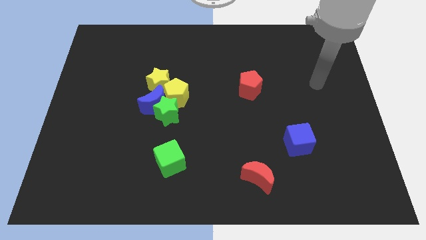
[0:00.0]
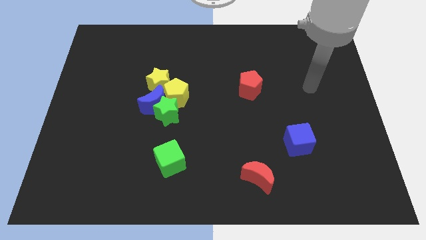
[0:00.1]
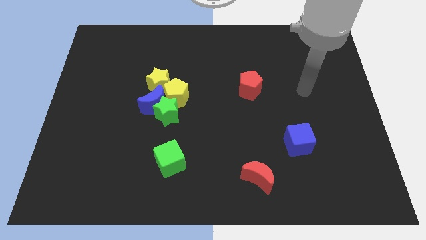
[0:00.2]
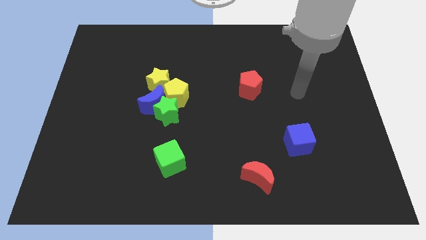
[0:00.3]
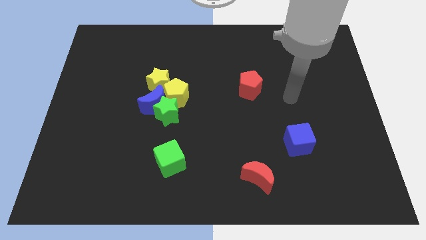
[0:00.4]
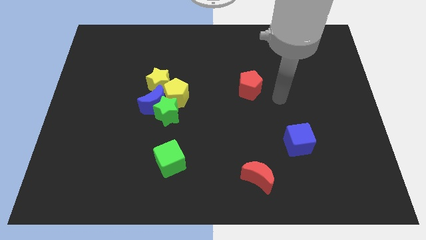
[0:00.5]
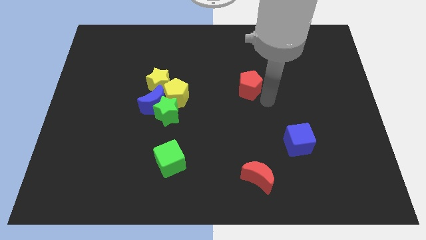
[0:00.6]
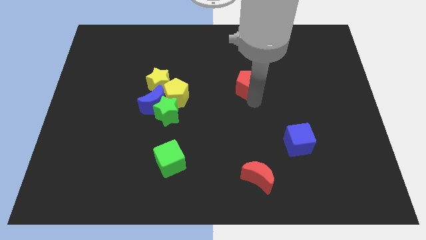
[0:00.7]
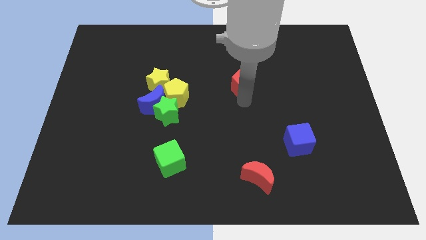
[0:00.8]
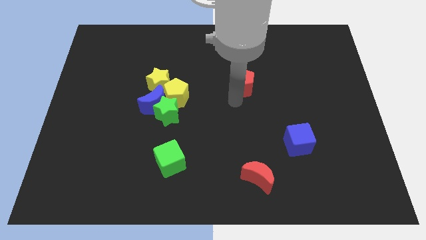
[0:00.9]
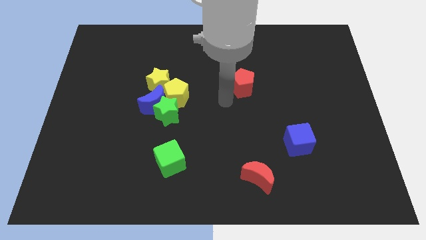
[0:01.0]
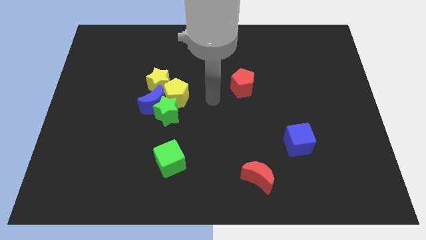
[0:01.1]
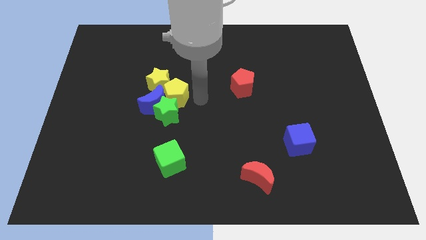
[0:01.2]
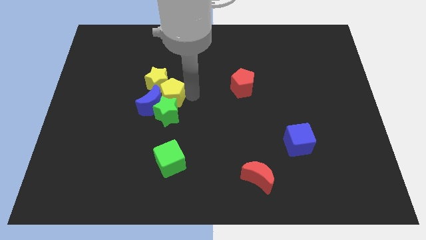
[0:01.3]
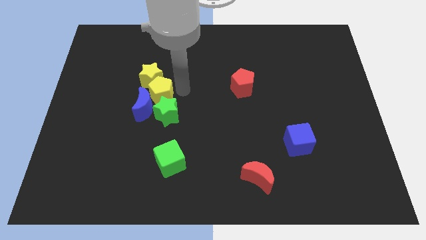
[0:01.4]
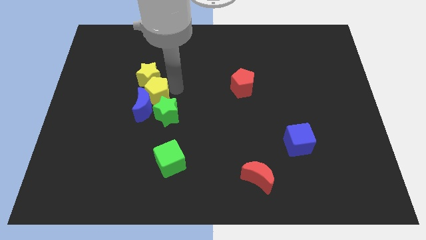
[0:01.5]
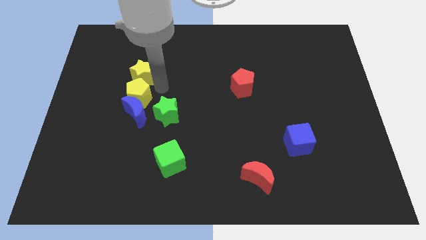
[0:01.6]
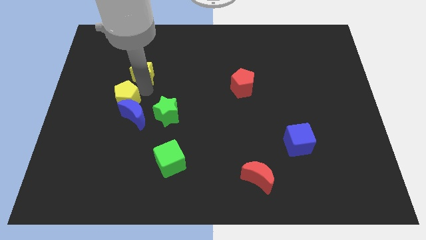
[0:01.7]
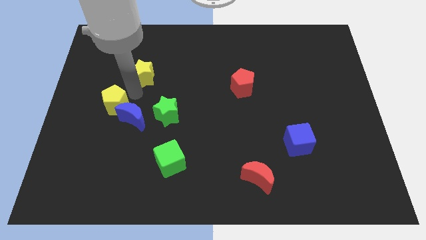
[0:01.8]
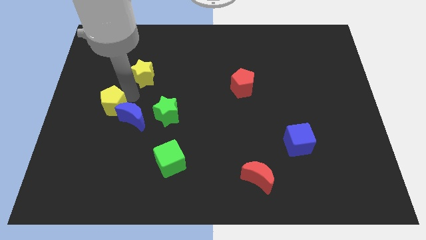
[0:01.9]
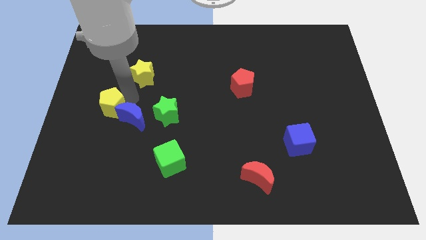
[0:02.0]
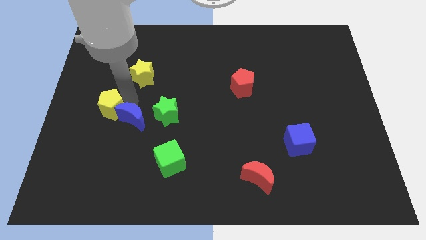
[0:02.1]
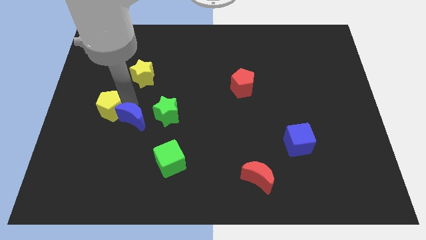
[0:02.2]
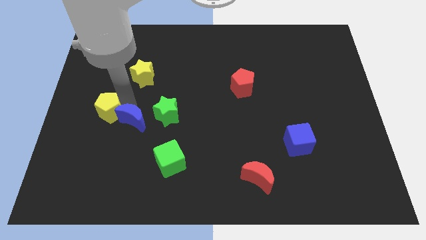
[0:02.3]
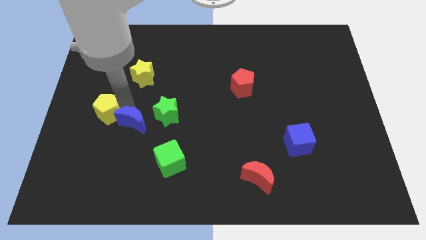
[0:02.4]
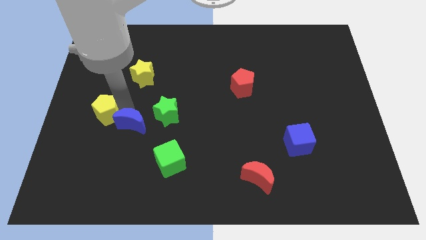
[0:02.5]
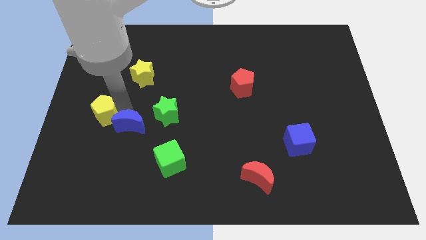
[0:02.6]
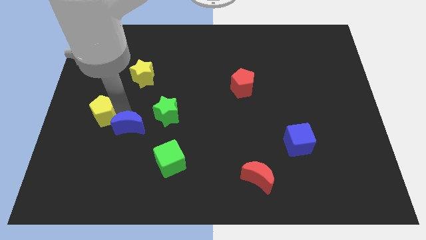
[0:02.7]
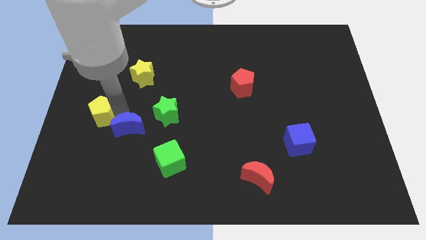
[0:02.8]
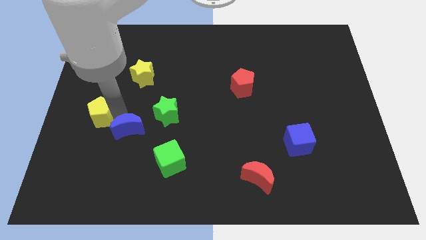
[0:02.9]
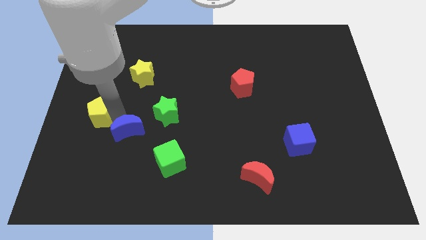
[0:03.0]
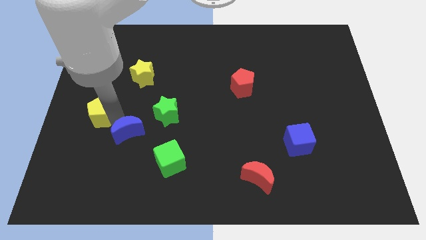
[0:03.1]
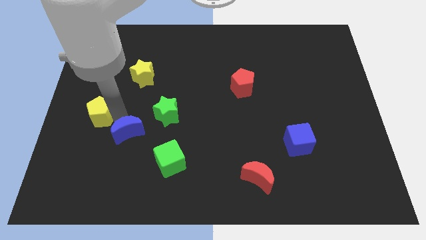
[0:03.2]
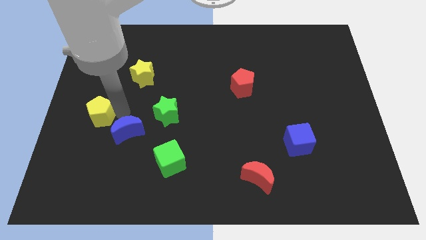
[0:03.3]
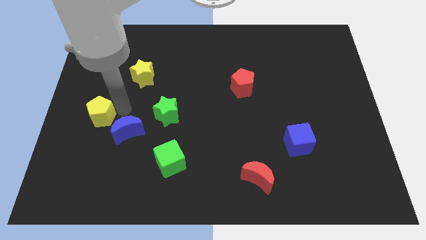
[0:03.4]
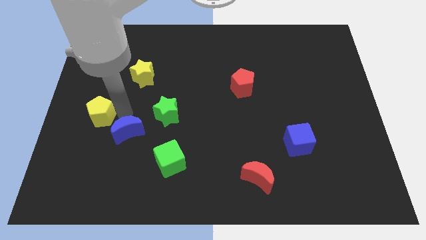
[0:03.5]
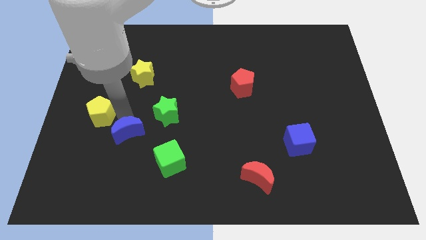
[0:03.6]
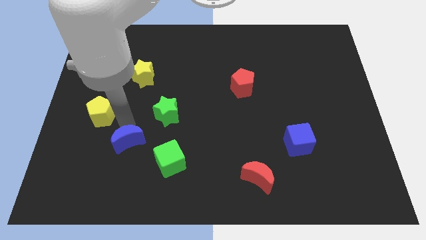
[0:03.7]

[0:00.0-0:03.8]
slightly move the blue moon down

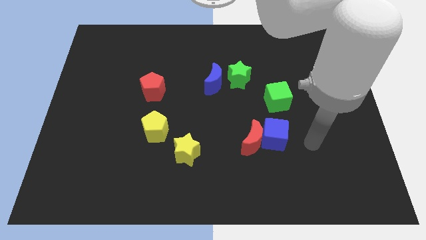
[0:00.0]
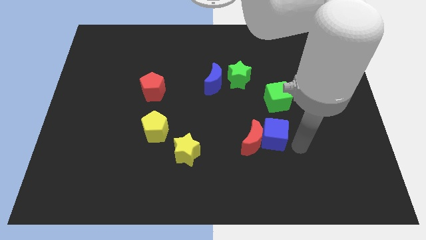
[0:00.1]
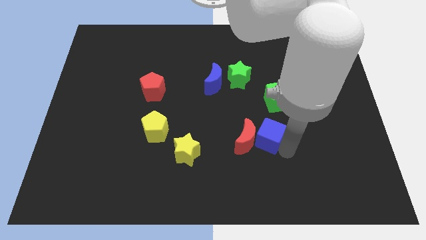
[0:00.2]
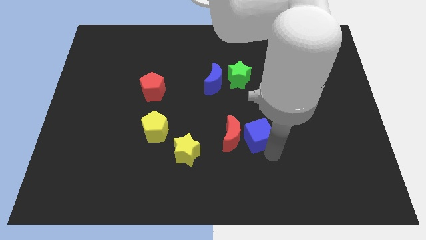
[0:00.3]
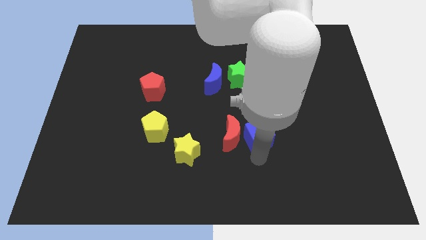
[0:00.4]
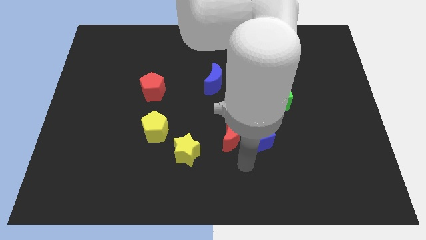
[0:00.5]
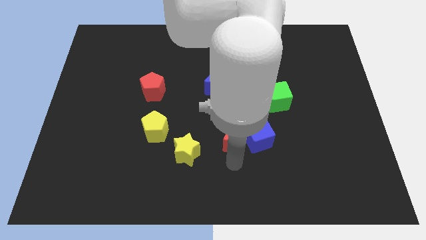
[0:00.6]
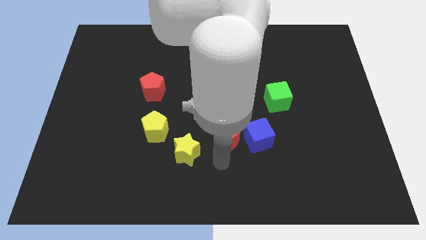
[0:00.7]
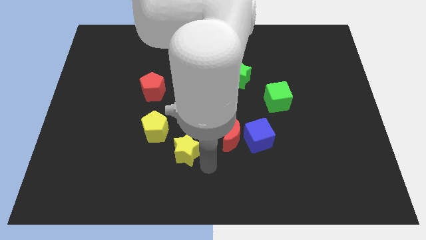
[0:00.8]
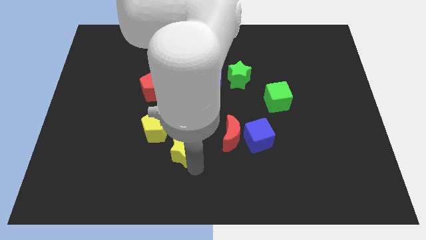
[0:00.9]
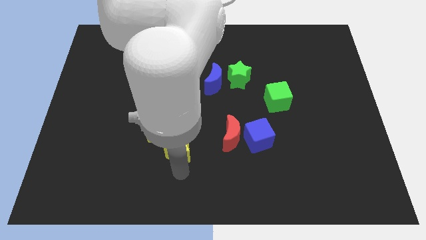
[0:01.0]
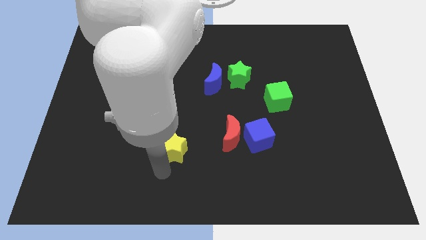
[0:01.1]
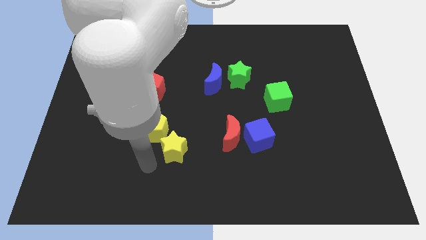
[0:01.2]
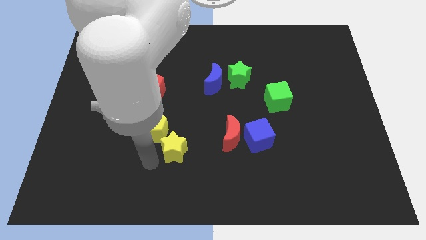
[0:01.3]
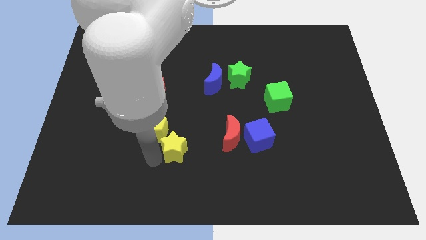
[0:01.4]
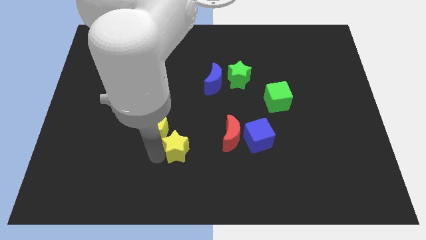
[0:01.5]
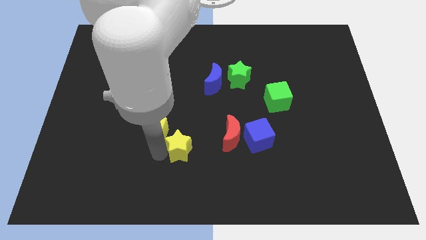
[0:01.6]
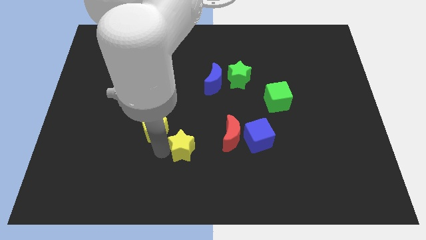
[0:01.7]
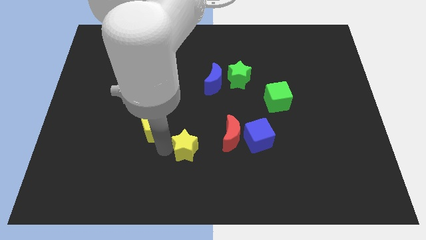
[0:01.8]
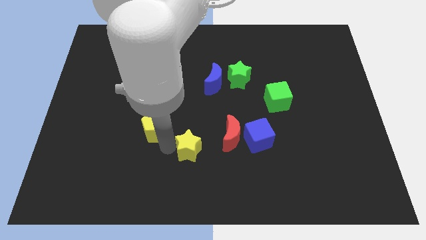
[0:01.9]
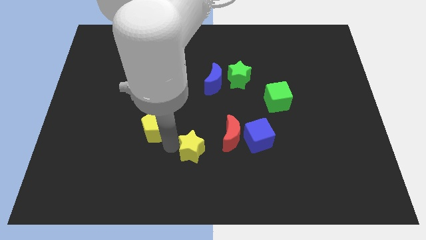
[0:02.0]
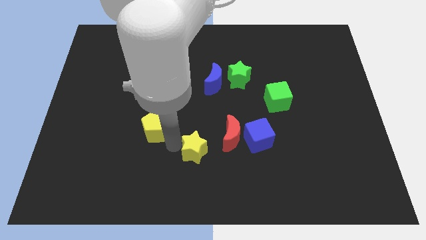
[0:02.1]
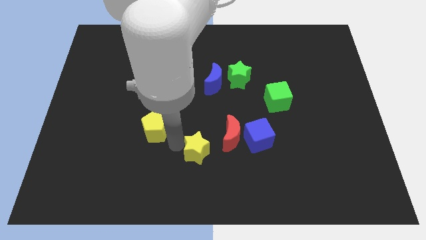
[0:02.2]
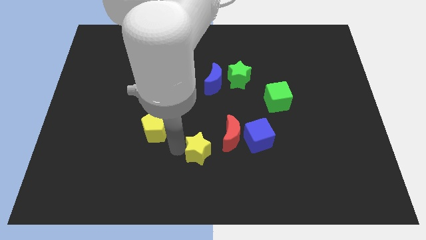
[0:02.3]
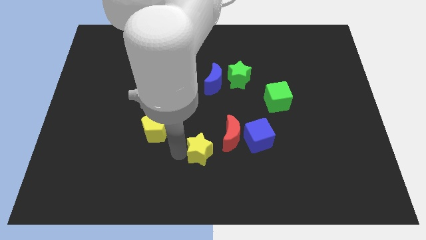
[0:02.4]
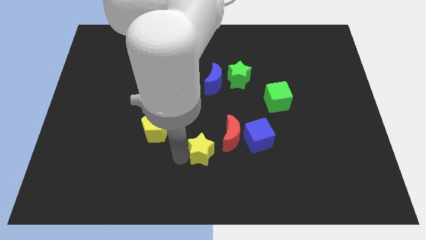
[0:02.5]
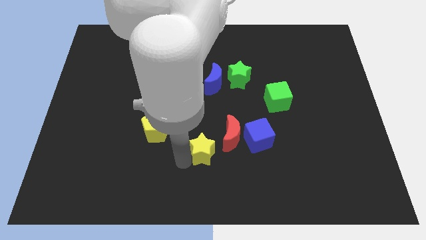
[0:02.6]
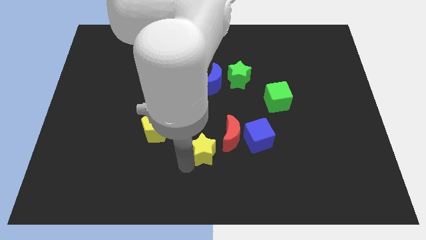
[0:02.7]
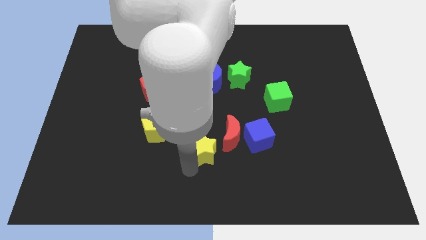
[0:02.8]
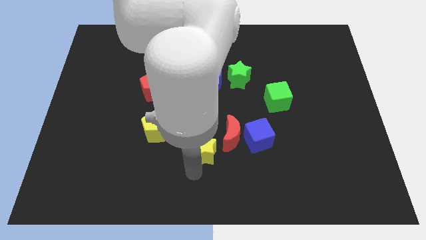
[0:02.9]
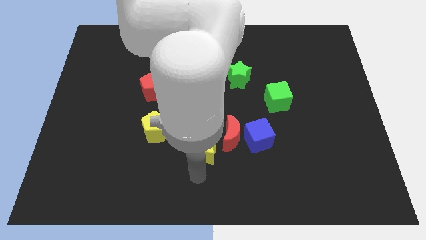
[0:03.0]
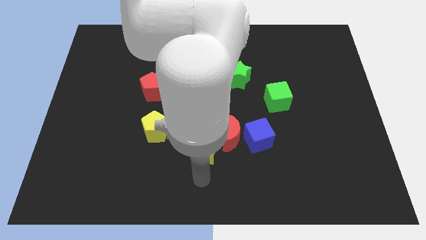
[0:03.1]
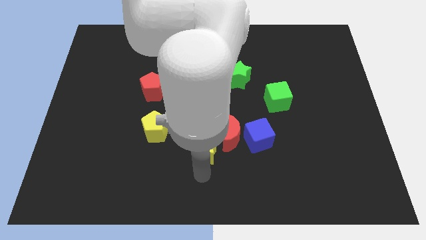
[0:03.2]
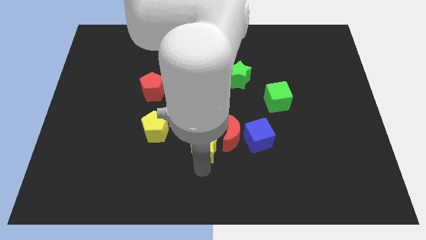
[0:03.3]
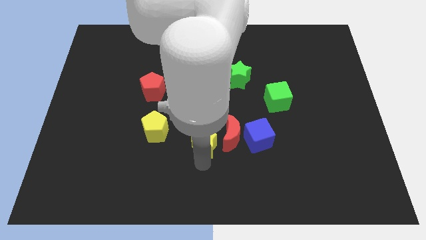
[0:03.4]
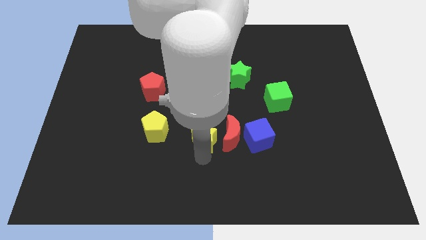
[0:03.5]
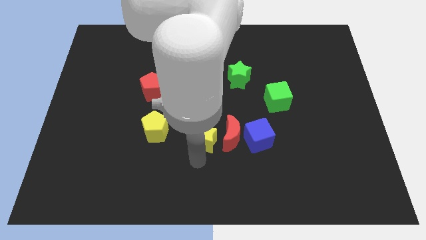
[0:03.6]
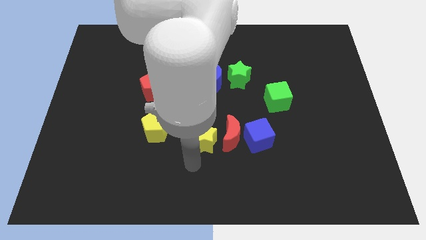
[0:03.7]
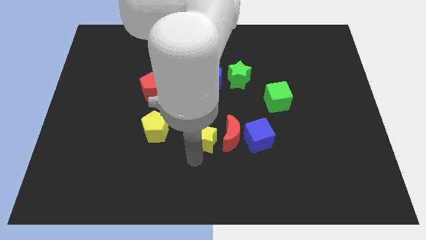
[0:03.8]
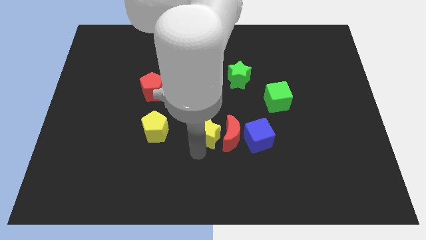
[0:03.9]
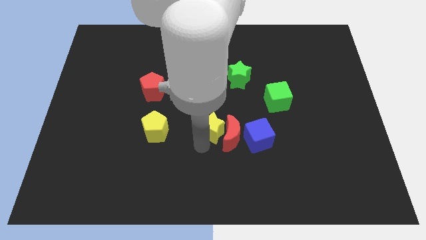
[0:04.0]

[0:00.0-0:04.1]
slide the yellow star a little bit upwards and then right

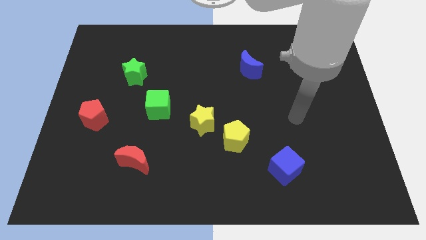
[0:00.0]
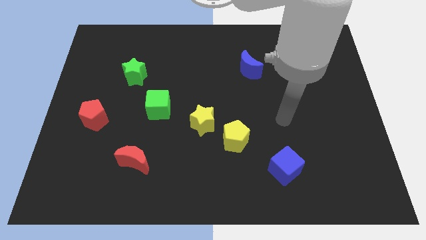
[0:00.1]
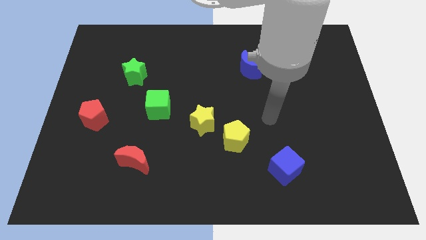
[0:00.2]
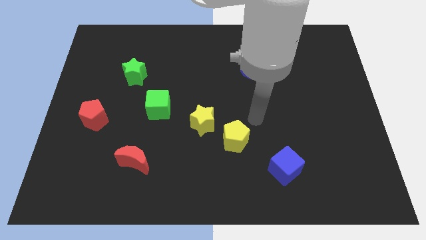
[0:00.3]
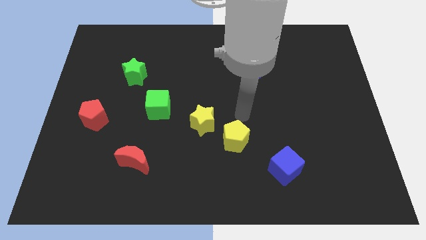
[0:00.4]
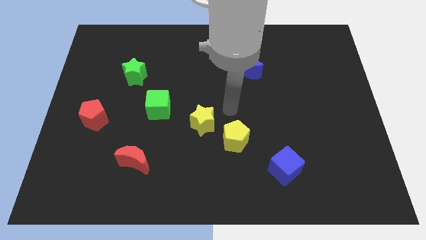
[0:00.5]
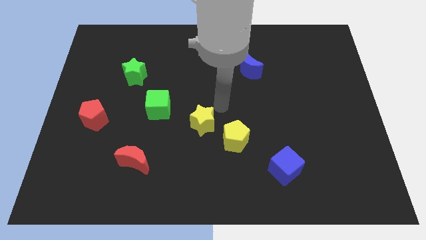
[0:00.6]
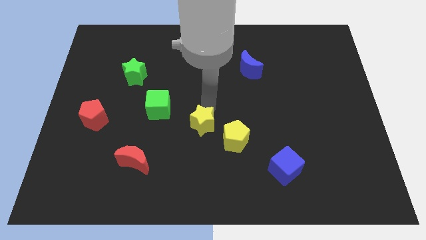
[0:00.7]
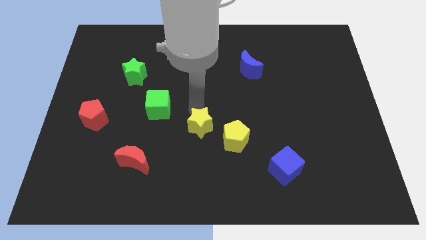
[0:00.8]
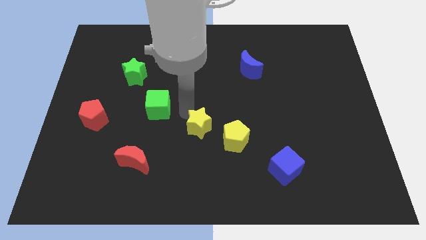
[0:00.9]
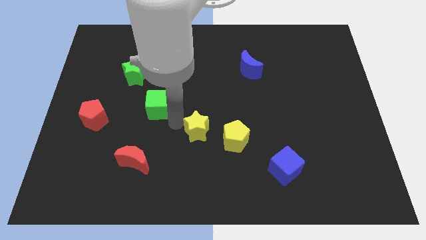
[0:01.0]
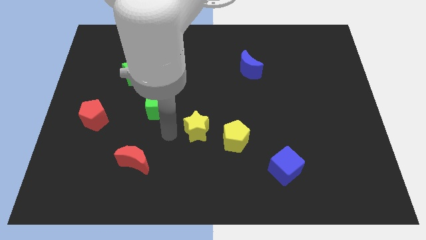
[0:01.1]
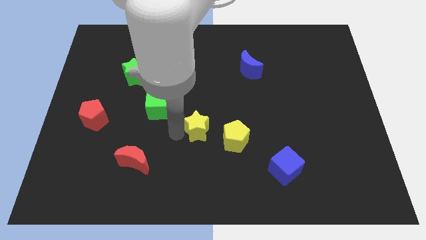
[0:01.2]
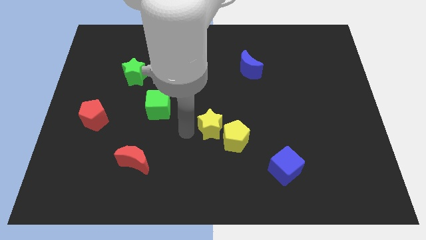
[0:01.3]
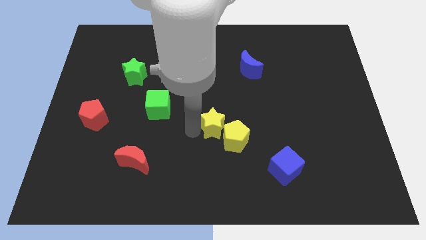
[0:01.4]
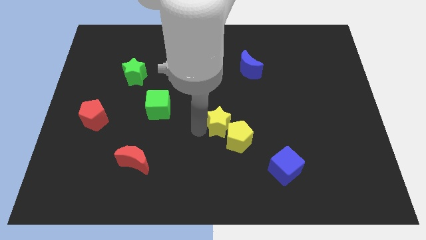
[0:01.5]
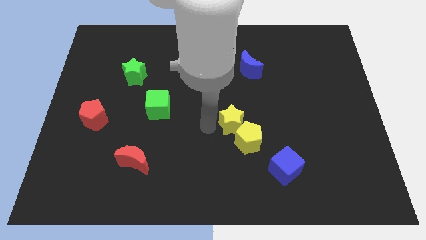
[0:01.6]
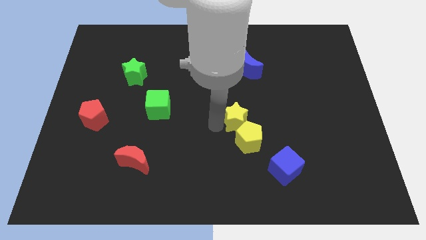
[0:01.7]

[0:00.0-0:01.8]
move the yellow star to the right a little bit
